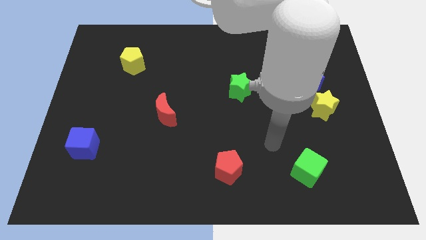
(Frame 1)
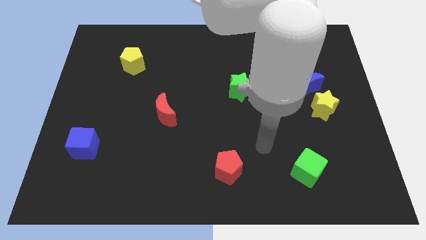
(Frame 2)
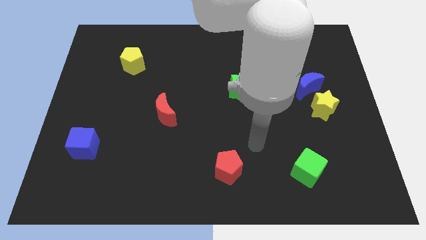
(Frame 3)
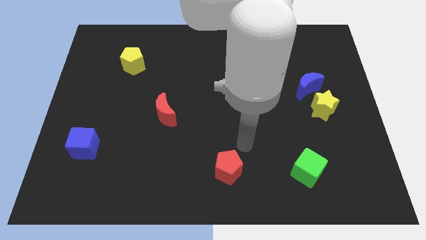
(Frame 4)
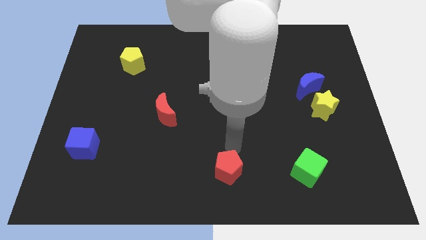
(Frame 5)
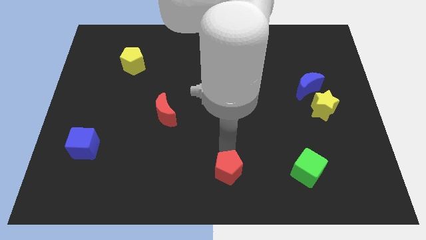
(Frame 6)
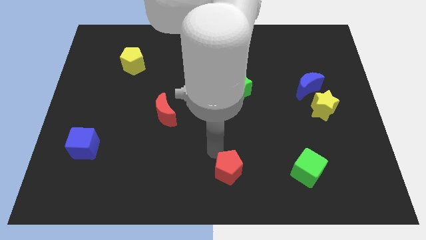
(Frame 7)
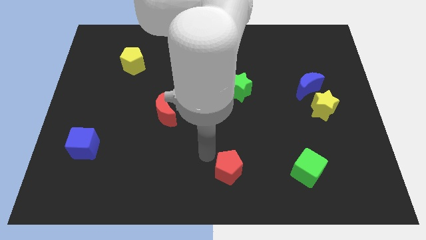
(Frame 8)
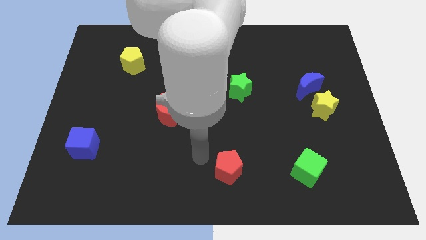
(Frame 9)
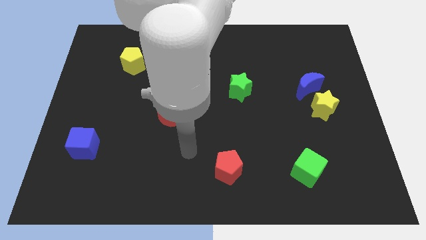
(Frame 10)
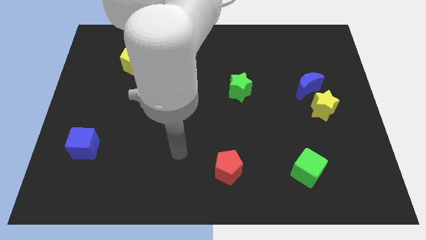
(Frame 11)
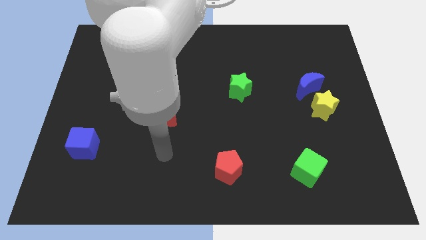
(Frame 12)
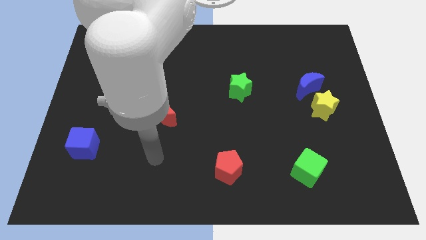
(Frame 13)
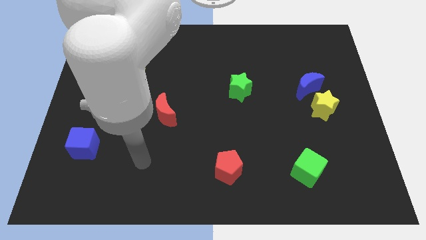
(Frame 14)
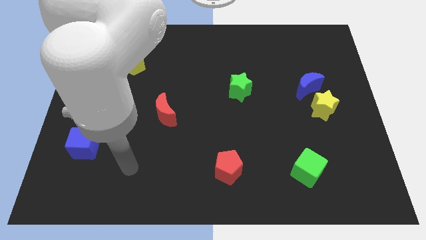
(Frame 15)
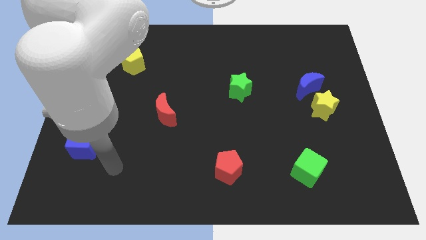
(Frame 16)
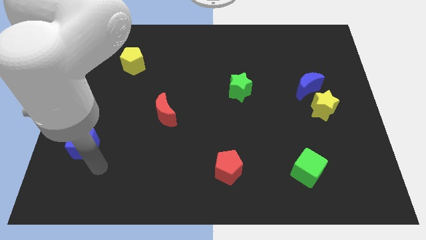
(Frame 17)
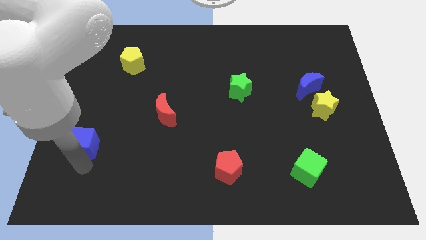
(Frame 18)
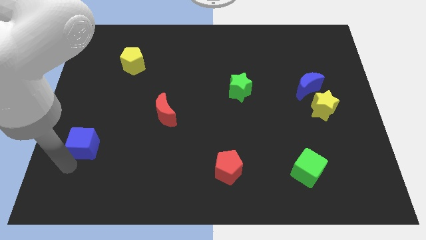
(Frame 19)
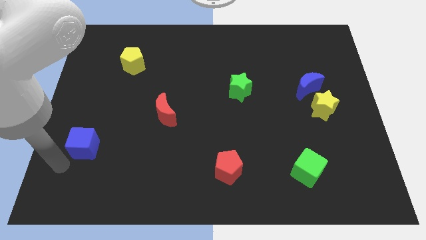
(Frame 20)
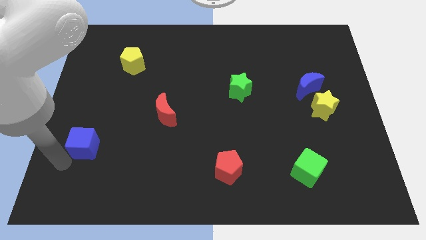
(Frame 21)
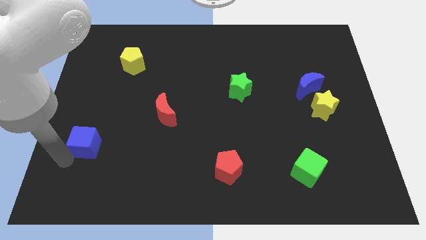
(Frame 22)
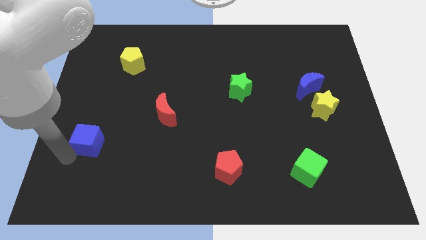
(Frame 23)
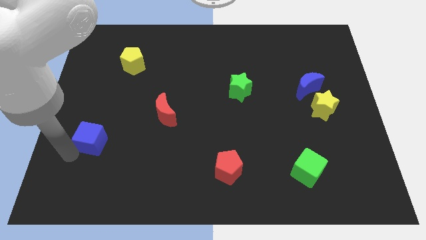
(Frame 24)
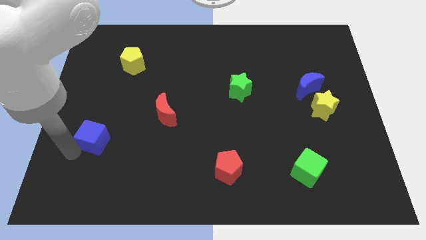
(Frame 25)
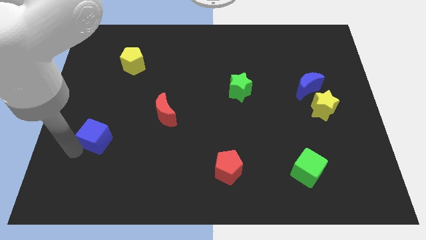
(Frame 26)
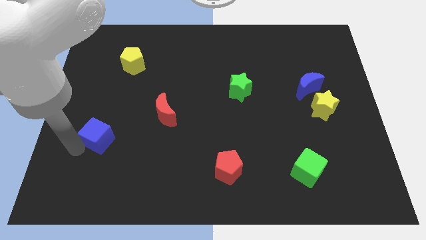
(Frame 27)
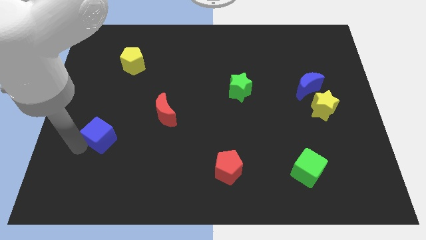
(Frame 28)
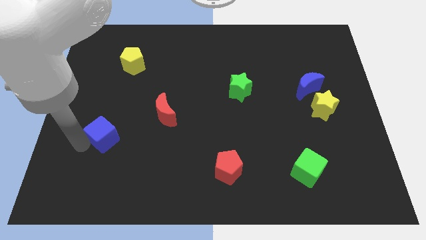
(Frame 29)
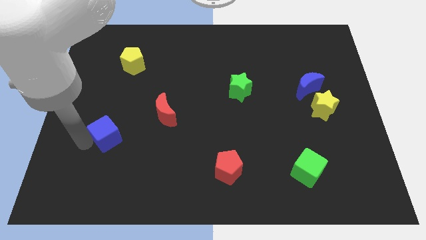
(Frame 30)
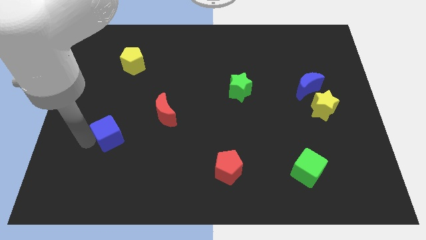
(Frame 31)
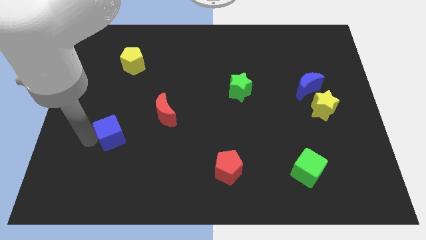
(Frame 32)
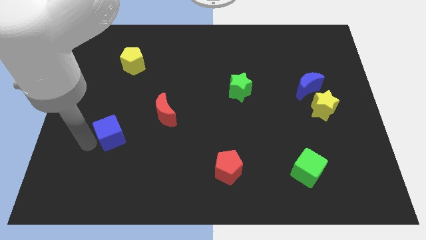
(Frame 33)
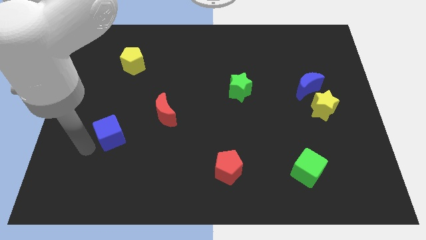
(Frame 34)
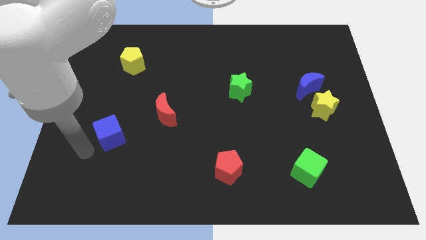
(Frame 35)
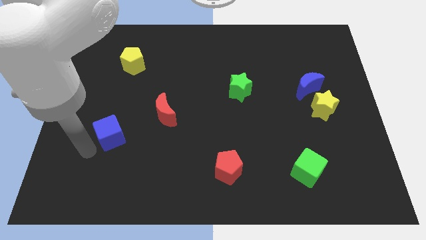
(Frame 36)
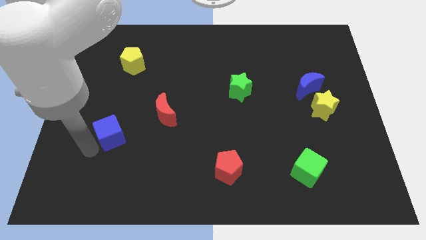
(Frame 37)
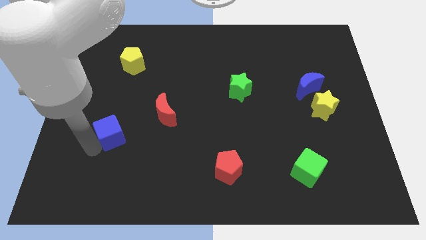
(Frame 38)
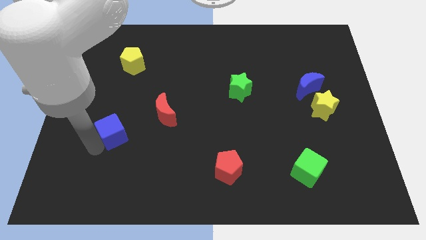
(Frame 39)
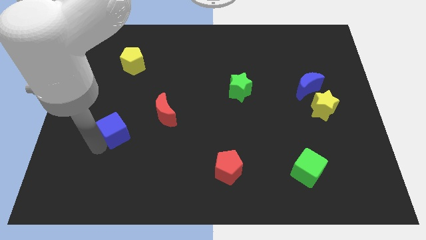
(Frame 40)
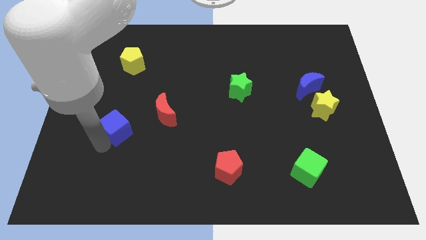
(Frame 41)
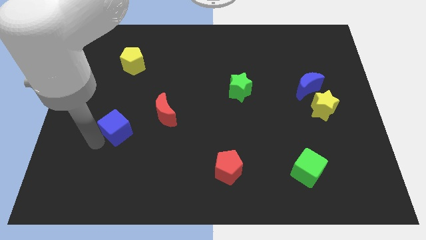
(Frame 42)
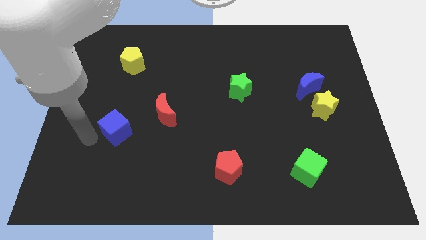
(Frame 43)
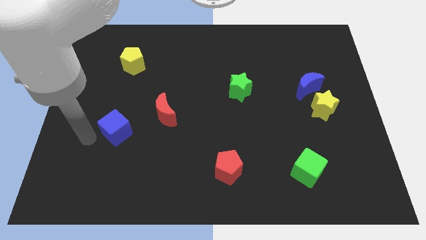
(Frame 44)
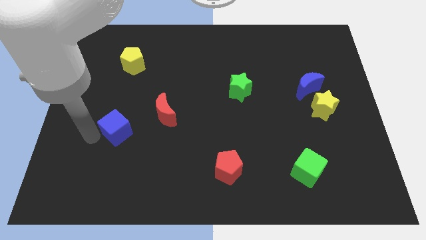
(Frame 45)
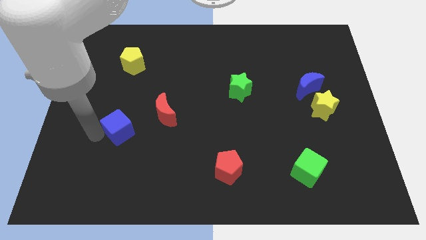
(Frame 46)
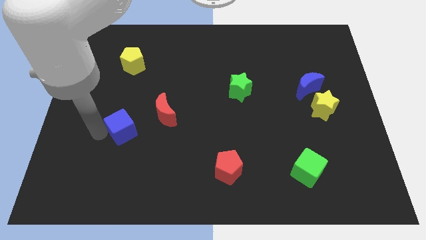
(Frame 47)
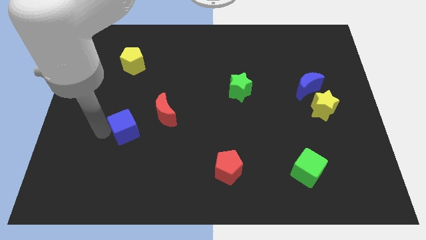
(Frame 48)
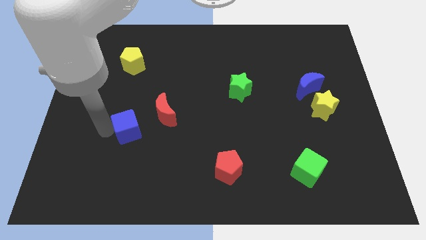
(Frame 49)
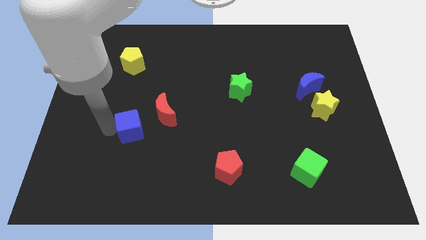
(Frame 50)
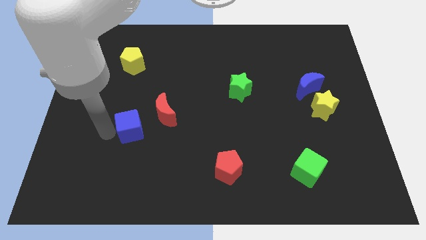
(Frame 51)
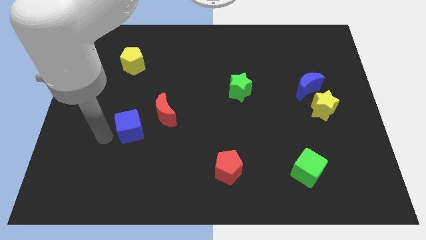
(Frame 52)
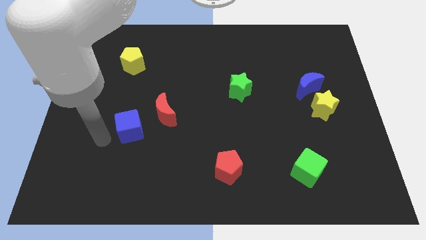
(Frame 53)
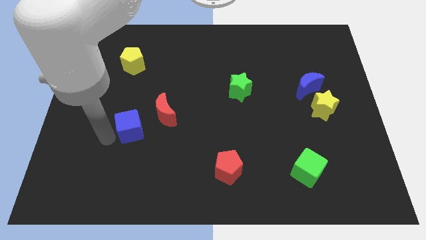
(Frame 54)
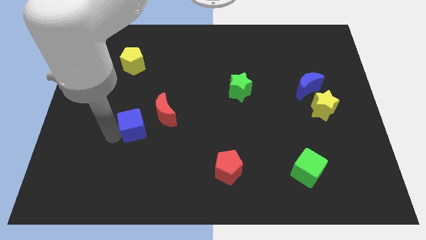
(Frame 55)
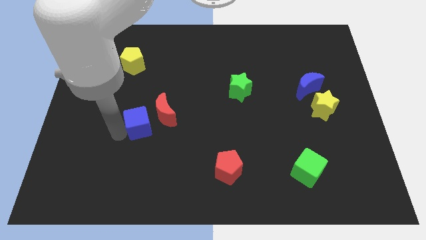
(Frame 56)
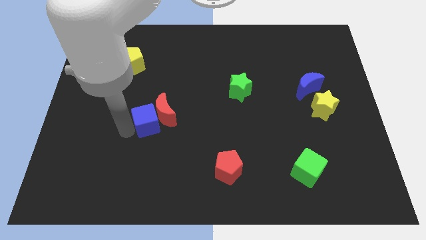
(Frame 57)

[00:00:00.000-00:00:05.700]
move the blue cube next to the red moon
